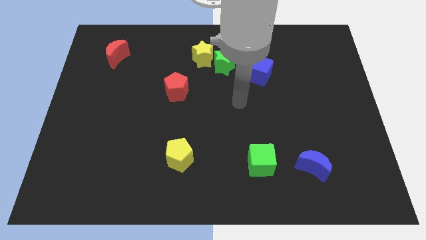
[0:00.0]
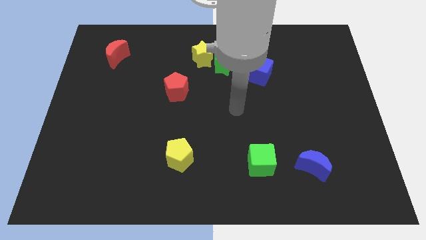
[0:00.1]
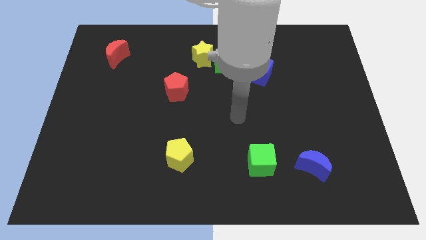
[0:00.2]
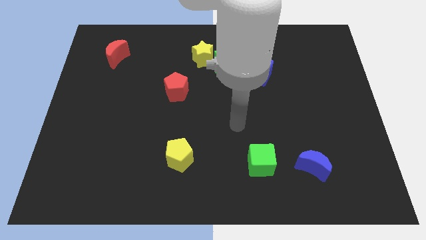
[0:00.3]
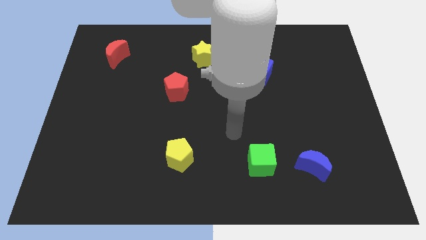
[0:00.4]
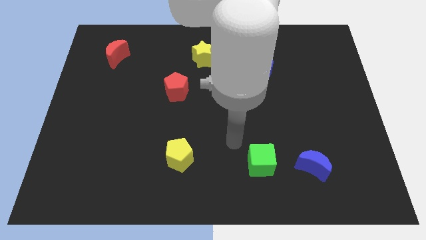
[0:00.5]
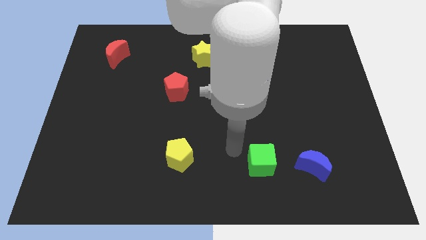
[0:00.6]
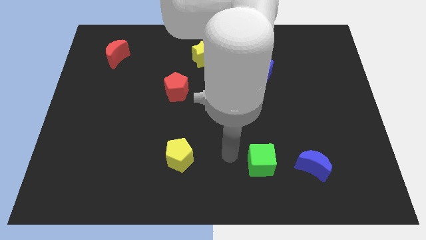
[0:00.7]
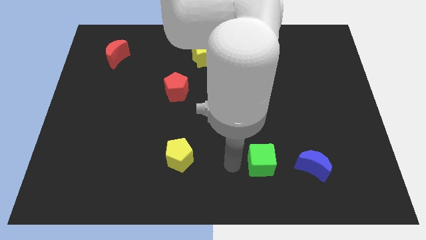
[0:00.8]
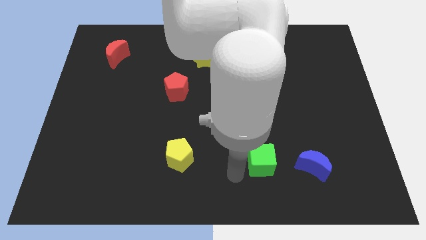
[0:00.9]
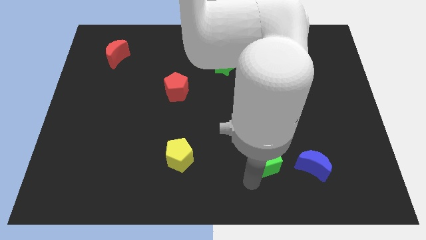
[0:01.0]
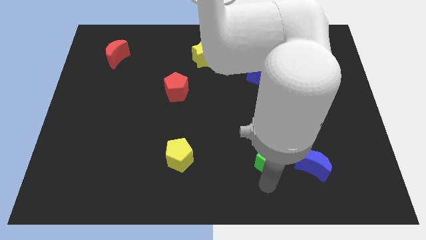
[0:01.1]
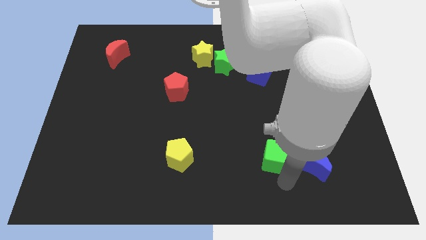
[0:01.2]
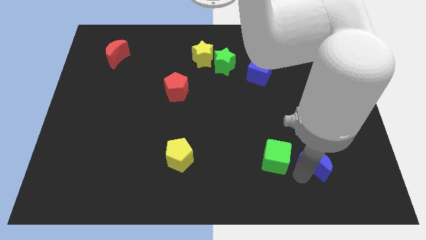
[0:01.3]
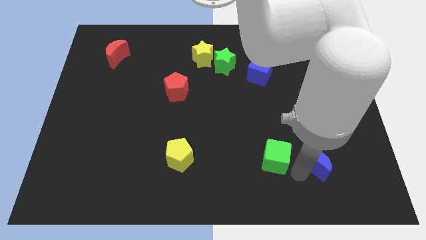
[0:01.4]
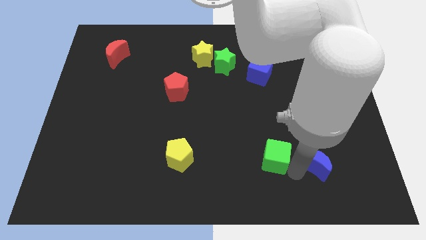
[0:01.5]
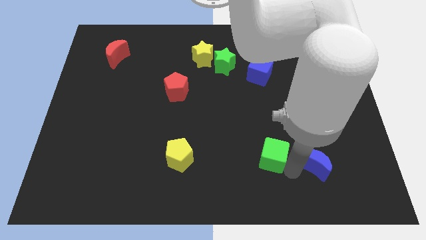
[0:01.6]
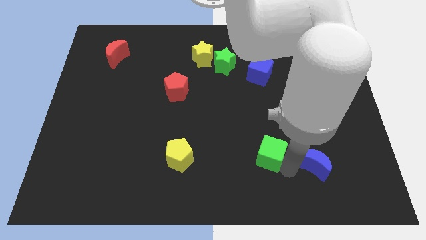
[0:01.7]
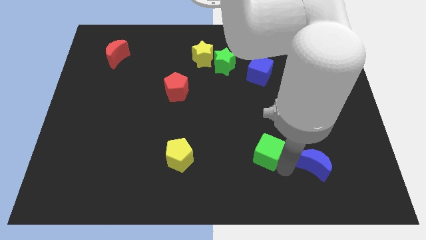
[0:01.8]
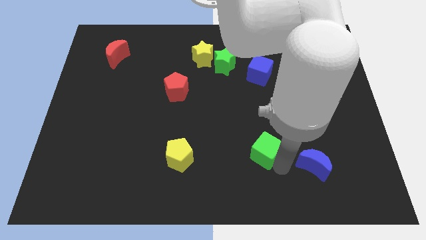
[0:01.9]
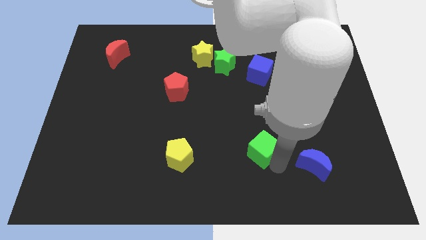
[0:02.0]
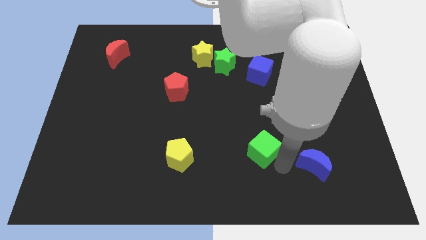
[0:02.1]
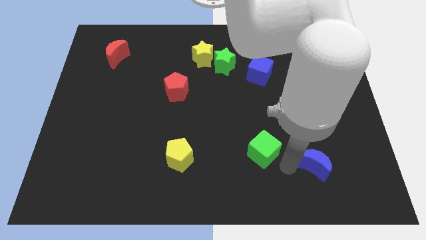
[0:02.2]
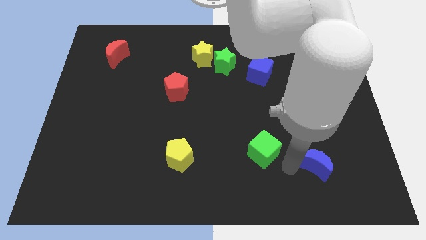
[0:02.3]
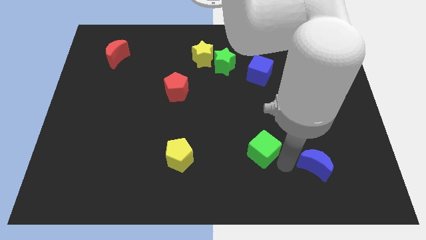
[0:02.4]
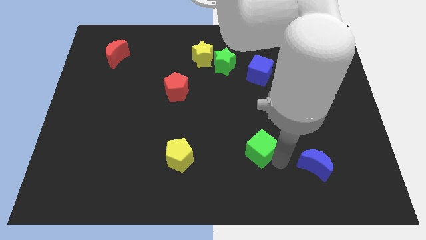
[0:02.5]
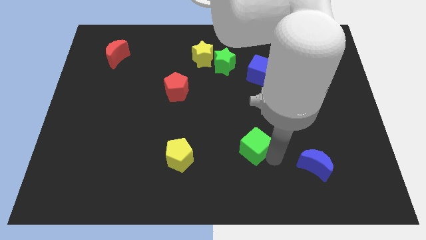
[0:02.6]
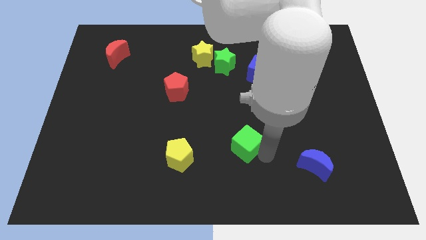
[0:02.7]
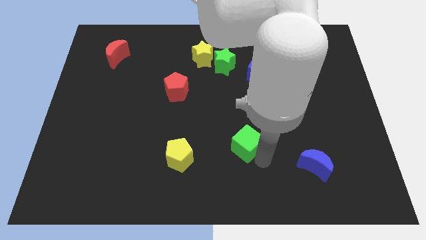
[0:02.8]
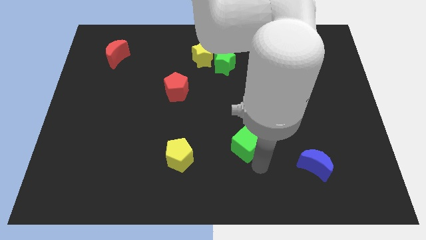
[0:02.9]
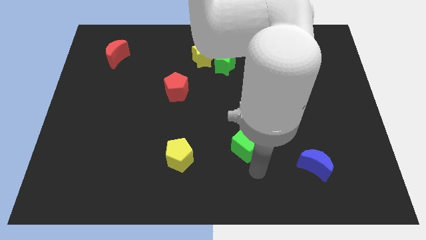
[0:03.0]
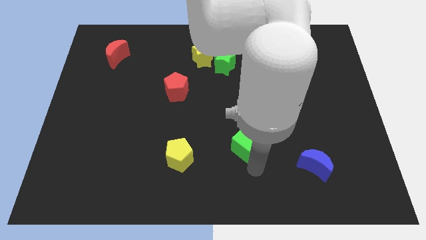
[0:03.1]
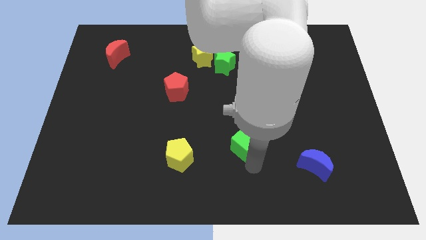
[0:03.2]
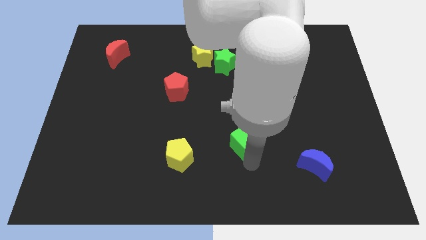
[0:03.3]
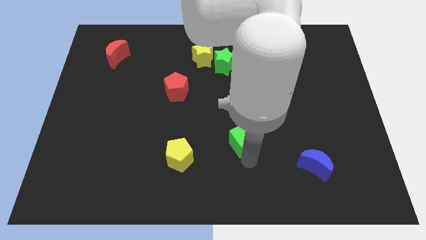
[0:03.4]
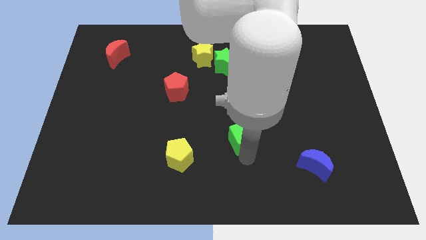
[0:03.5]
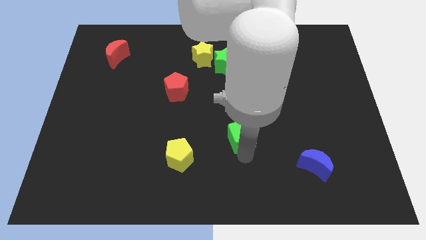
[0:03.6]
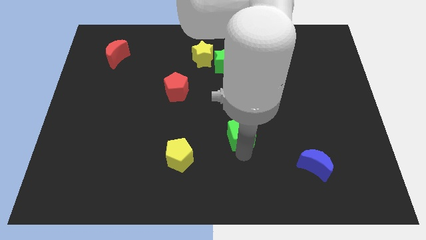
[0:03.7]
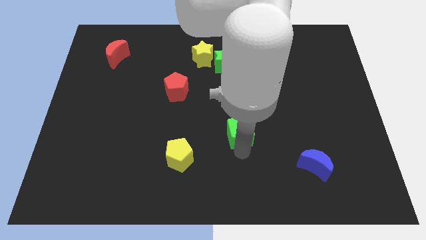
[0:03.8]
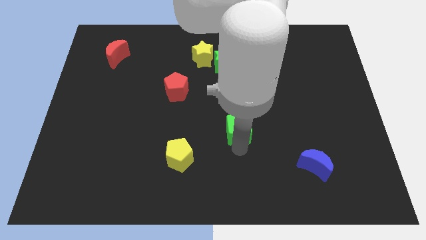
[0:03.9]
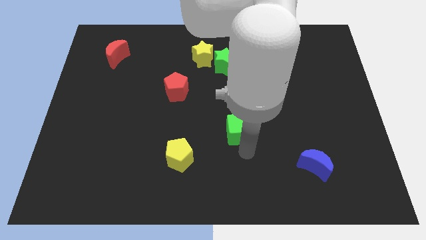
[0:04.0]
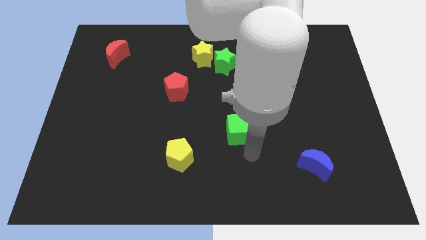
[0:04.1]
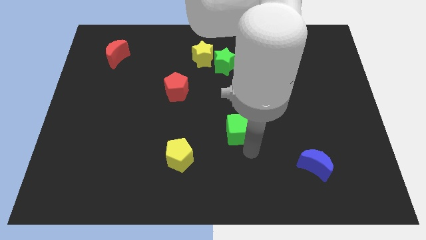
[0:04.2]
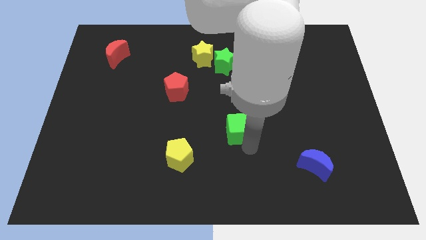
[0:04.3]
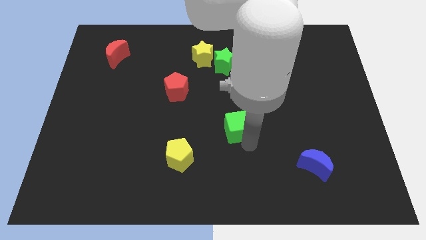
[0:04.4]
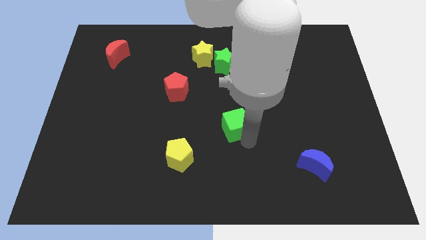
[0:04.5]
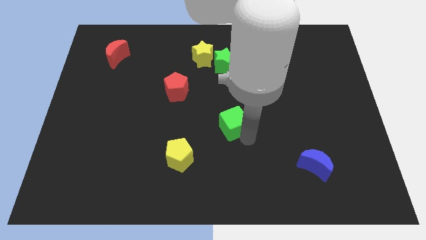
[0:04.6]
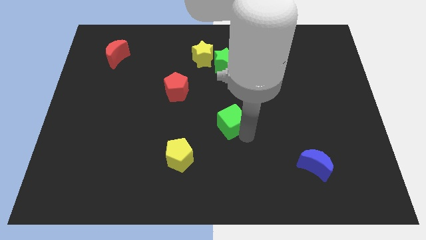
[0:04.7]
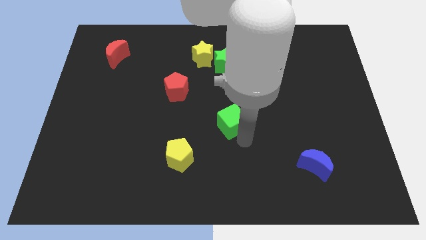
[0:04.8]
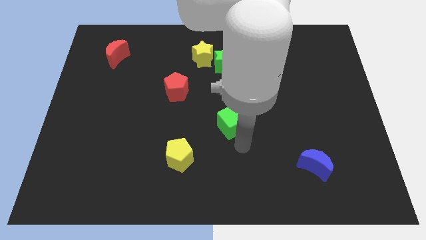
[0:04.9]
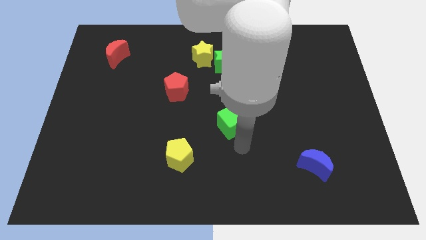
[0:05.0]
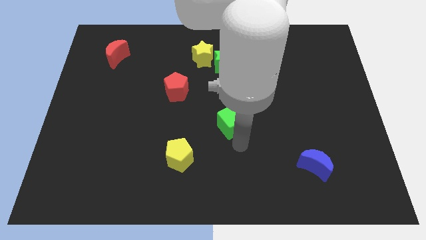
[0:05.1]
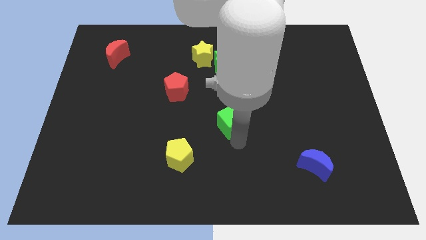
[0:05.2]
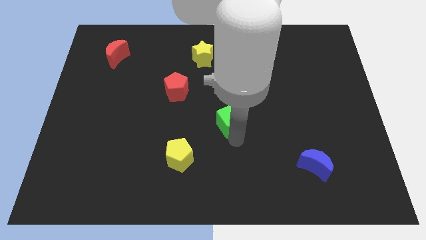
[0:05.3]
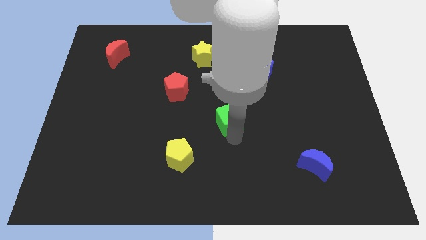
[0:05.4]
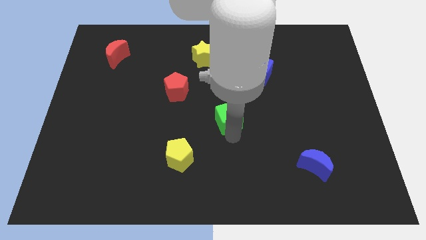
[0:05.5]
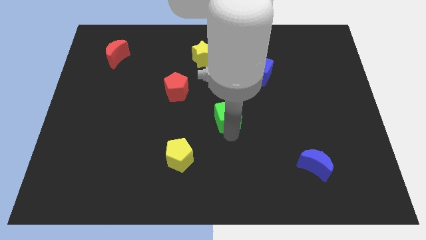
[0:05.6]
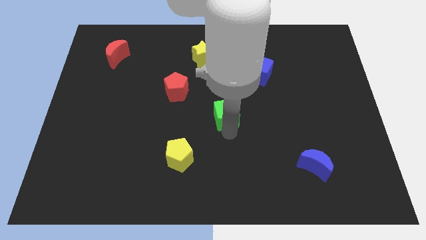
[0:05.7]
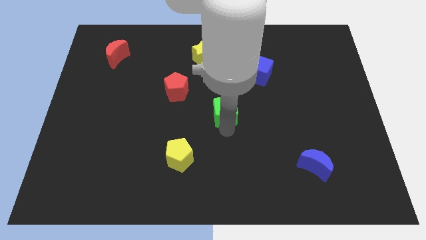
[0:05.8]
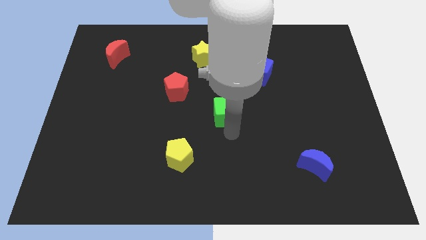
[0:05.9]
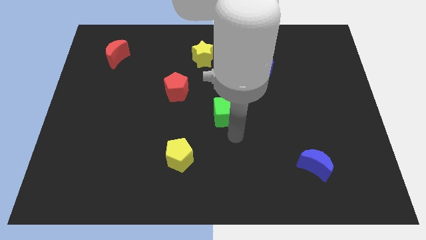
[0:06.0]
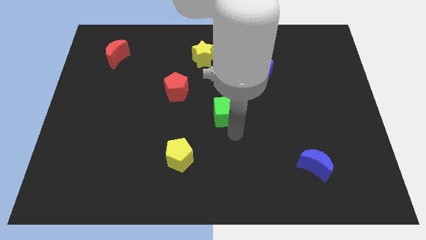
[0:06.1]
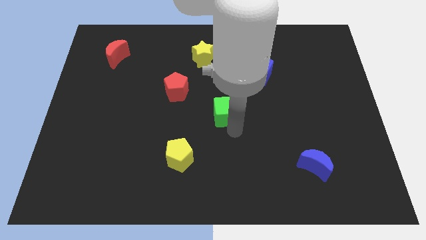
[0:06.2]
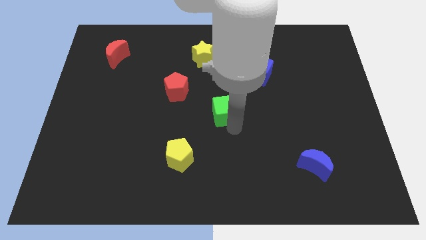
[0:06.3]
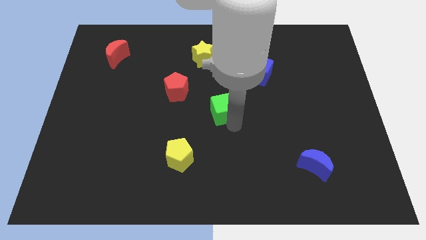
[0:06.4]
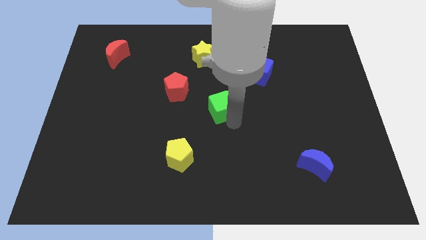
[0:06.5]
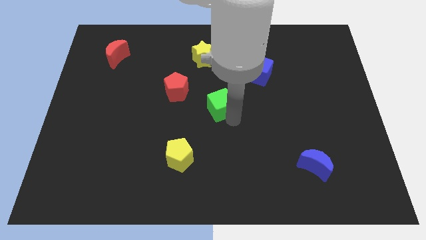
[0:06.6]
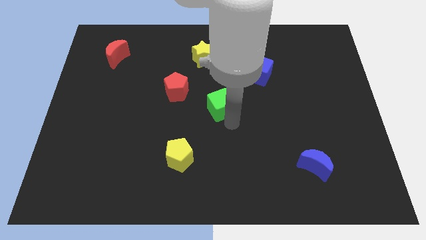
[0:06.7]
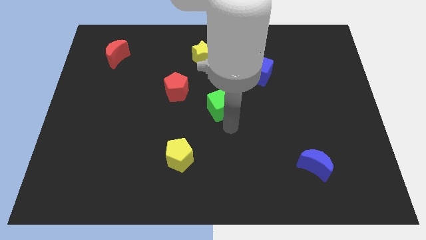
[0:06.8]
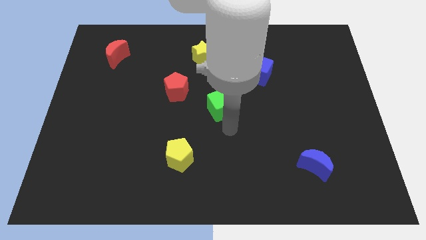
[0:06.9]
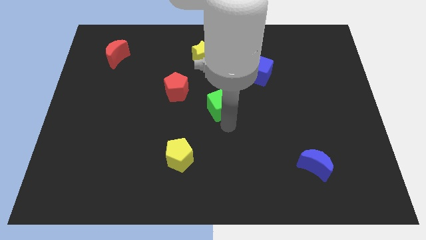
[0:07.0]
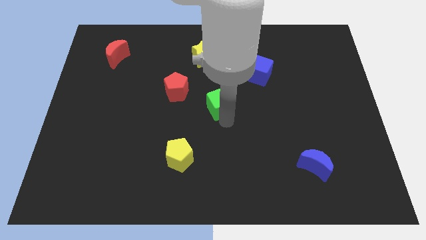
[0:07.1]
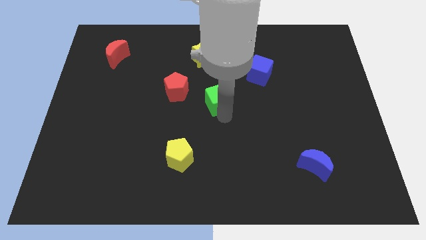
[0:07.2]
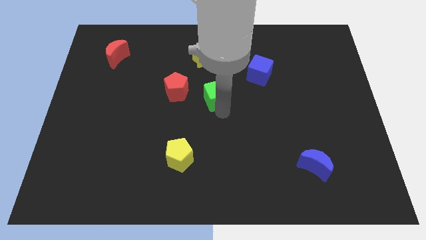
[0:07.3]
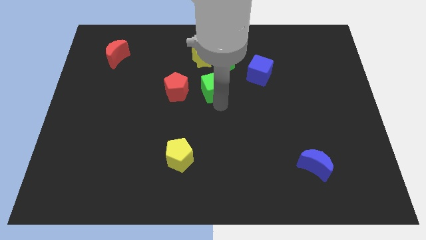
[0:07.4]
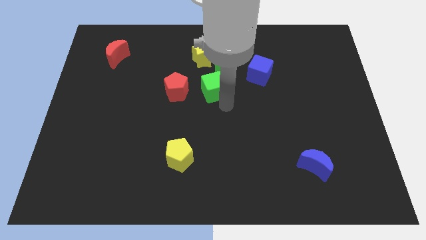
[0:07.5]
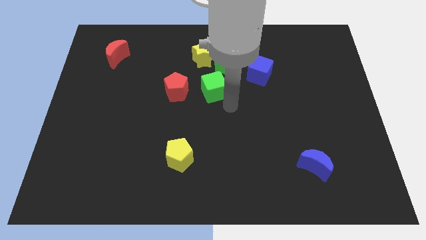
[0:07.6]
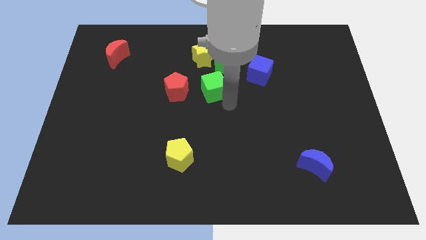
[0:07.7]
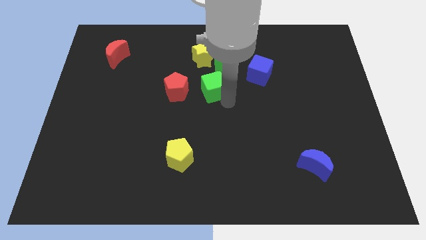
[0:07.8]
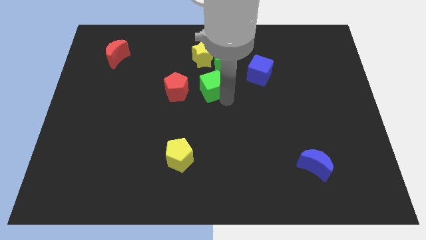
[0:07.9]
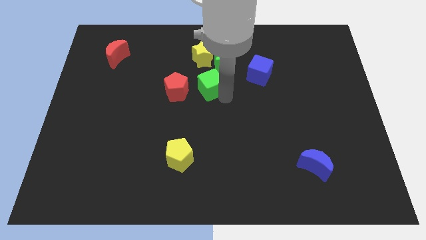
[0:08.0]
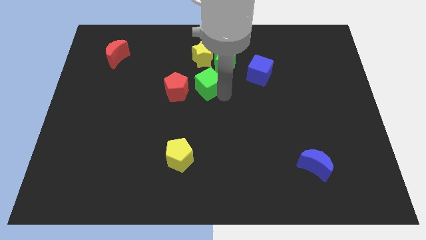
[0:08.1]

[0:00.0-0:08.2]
move the green cube to the top right of the red pentagon
